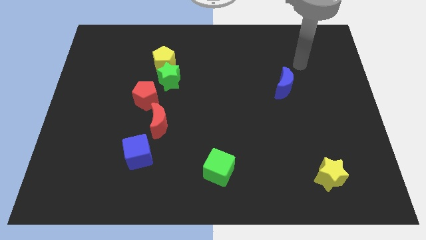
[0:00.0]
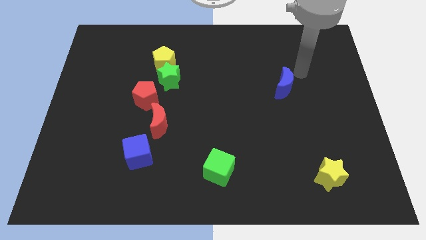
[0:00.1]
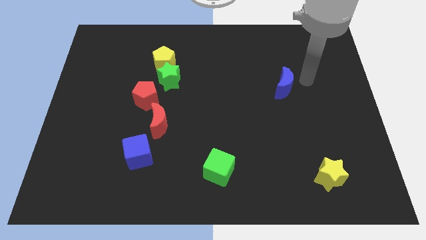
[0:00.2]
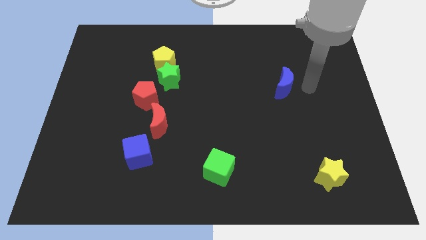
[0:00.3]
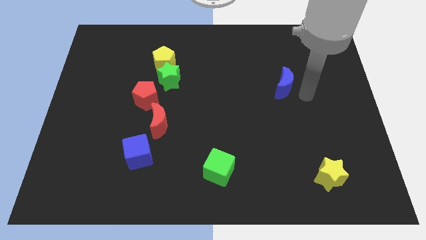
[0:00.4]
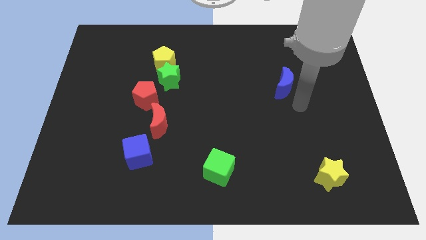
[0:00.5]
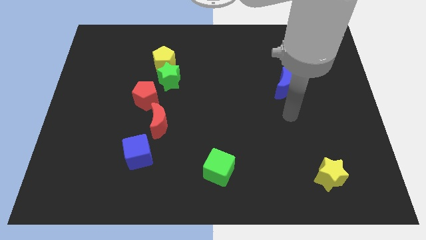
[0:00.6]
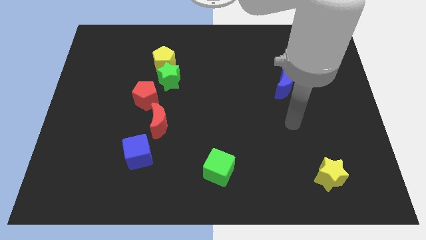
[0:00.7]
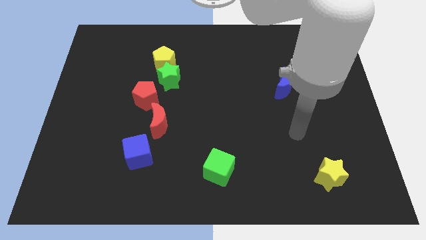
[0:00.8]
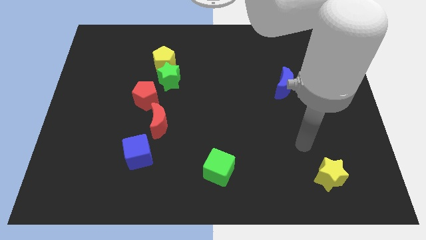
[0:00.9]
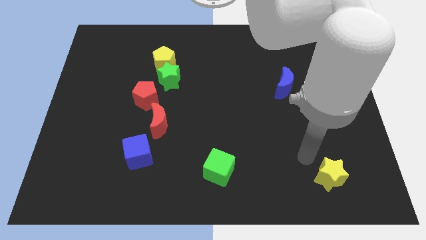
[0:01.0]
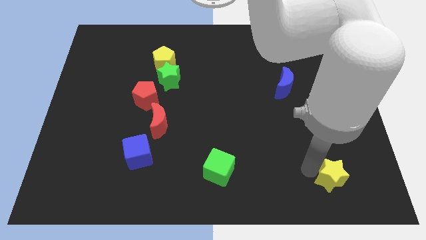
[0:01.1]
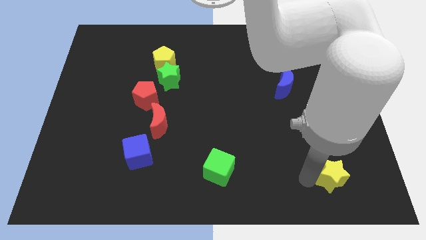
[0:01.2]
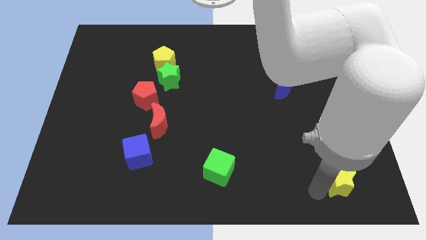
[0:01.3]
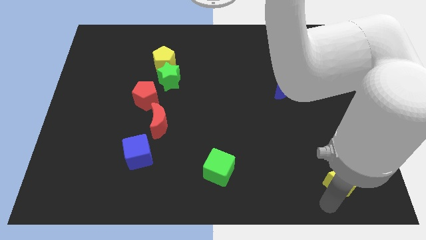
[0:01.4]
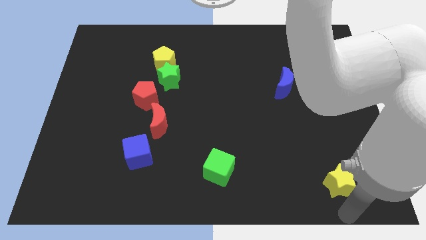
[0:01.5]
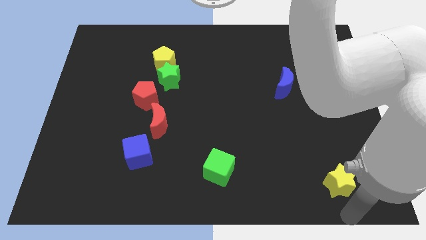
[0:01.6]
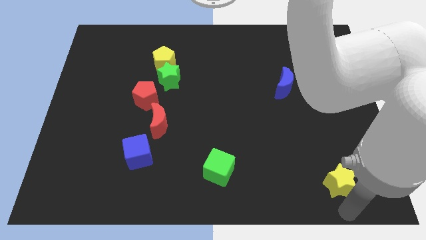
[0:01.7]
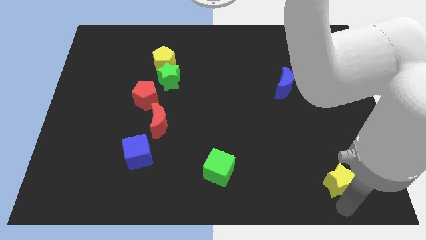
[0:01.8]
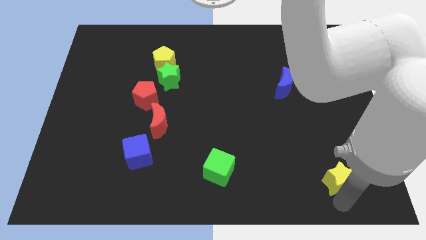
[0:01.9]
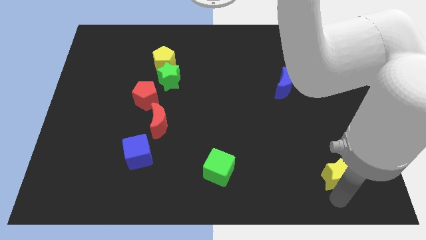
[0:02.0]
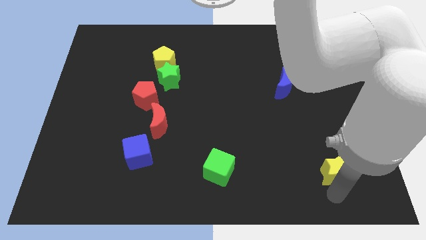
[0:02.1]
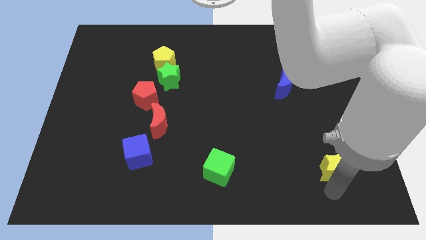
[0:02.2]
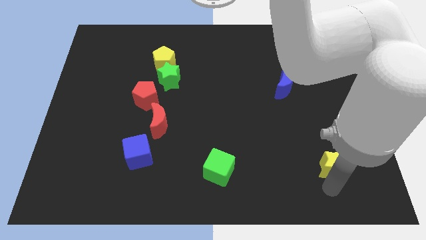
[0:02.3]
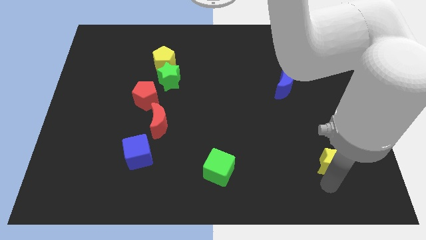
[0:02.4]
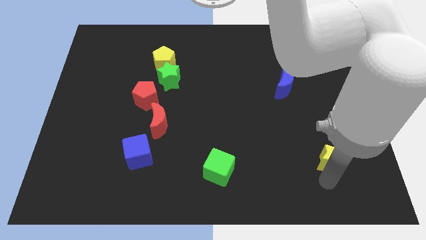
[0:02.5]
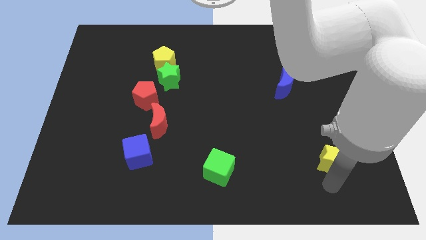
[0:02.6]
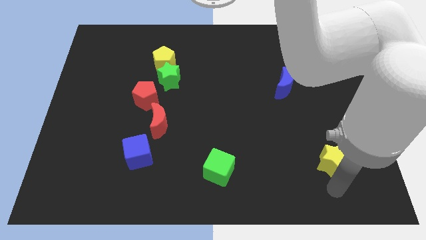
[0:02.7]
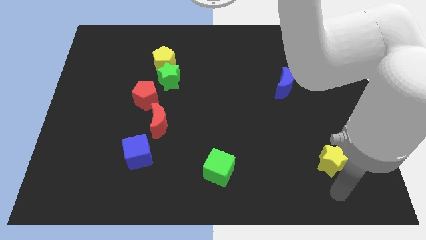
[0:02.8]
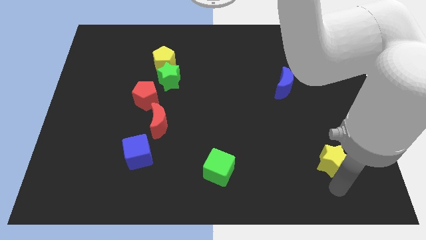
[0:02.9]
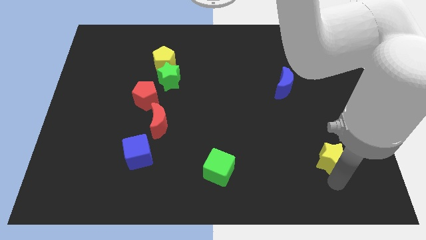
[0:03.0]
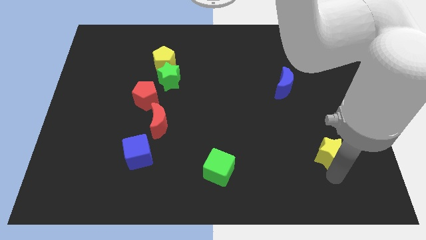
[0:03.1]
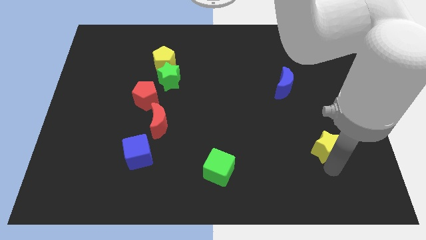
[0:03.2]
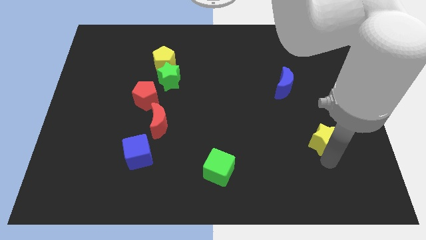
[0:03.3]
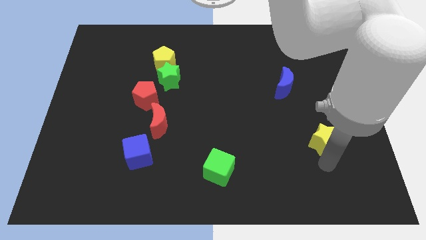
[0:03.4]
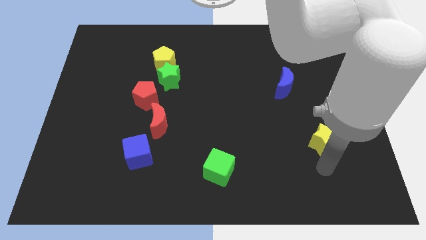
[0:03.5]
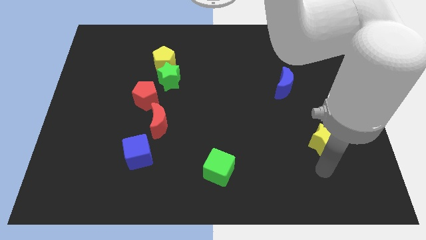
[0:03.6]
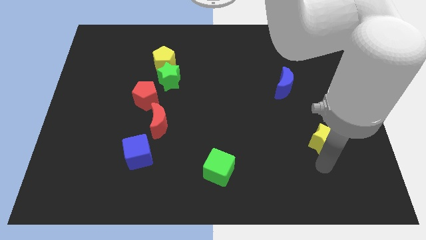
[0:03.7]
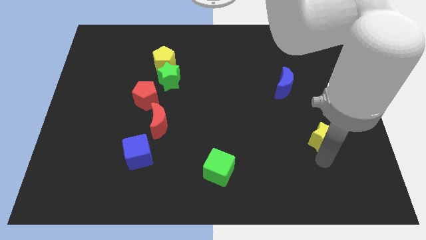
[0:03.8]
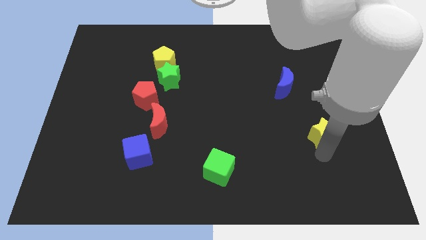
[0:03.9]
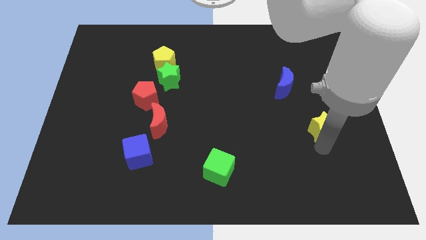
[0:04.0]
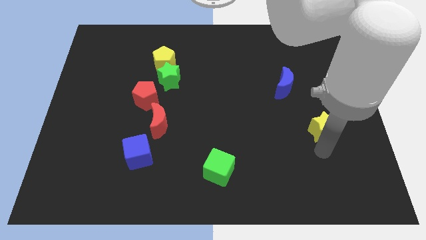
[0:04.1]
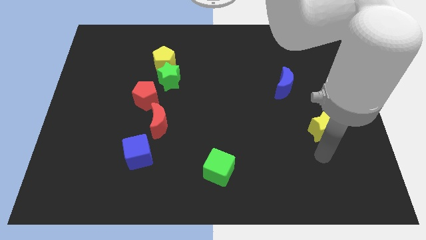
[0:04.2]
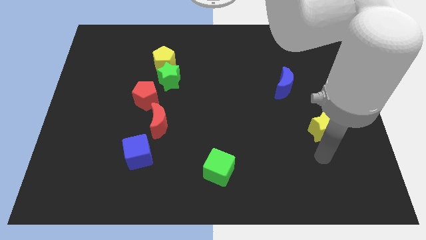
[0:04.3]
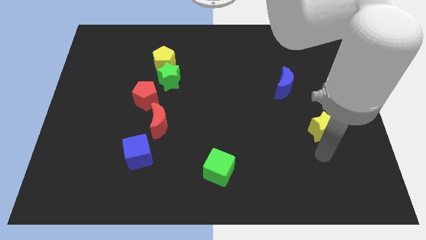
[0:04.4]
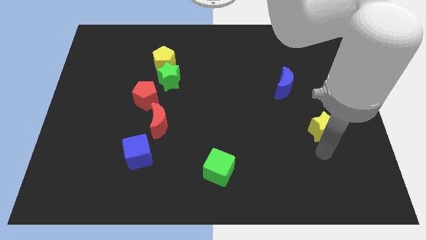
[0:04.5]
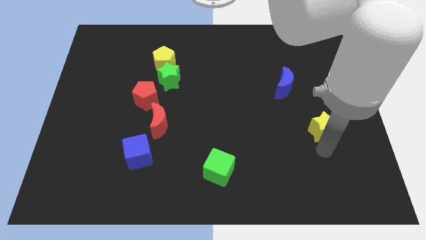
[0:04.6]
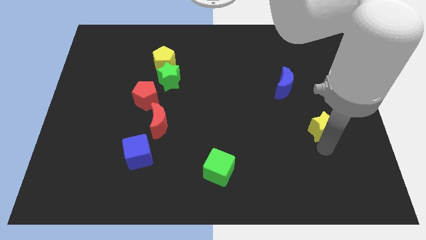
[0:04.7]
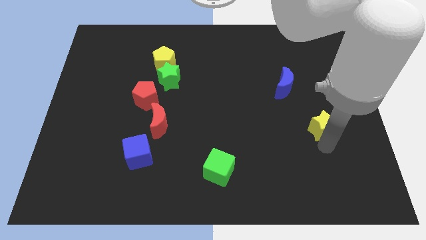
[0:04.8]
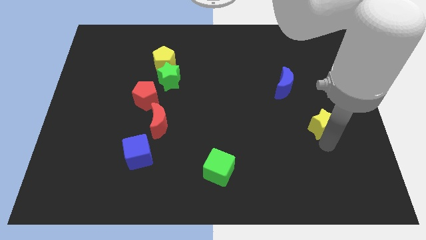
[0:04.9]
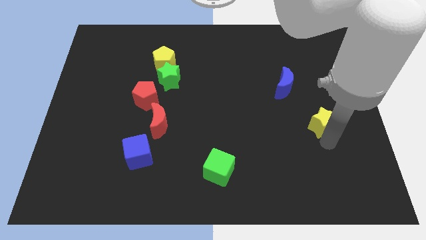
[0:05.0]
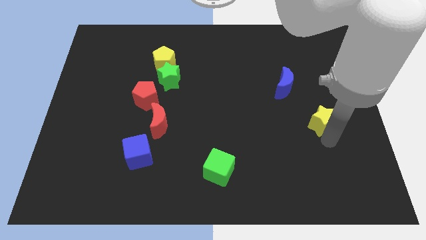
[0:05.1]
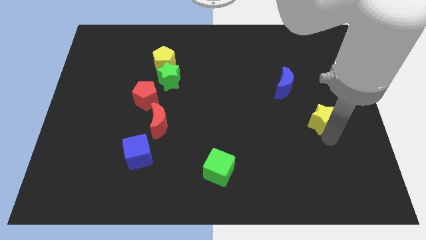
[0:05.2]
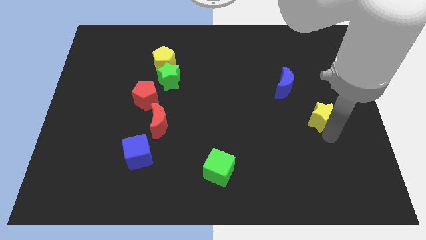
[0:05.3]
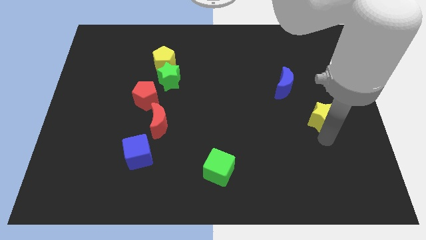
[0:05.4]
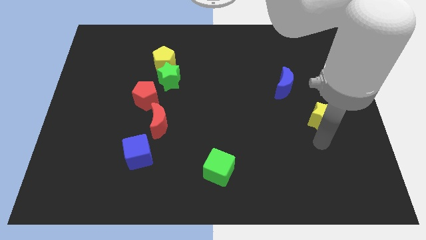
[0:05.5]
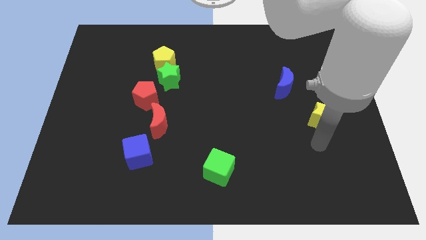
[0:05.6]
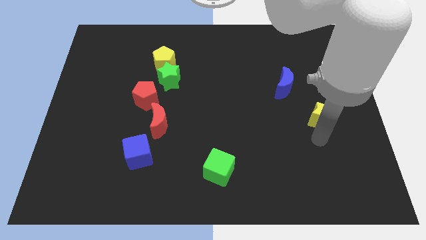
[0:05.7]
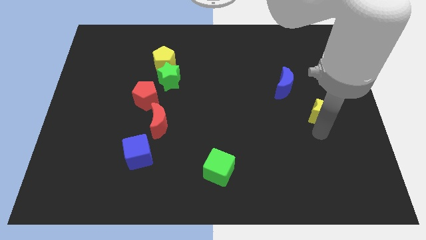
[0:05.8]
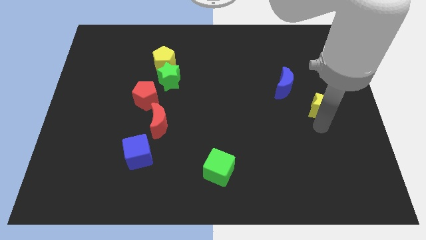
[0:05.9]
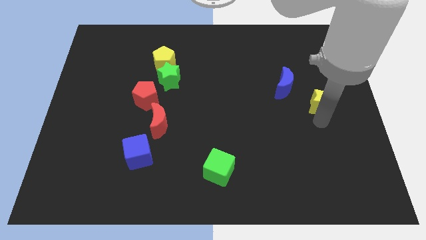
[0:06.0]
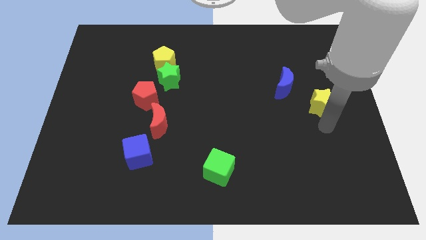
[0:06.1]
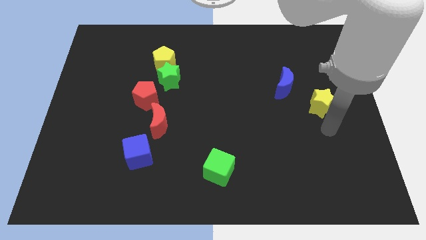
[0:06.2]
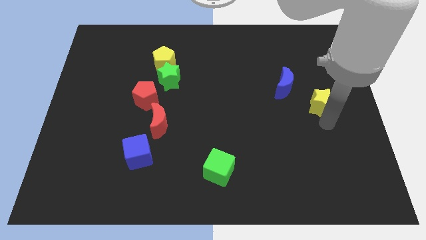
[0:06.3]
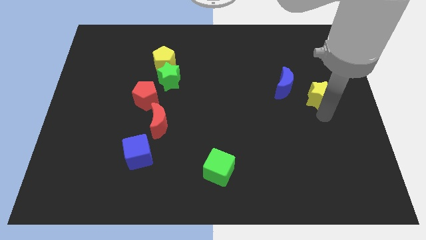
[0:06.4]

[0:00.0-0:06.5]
move the yellow star upwards

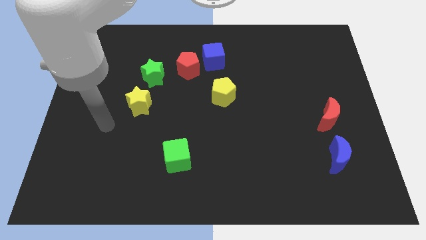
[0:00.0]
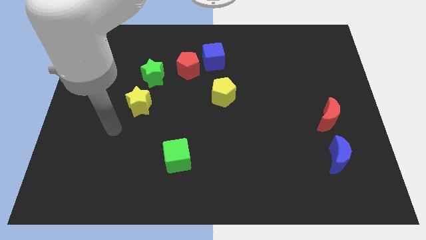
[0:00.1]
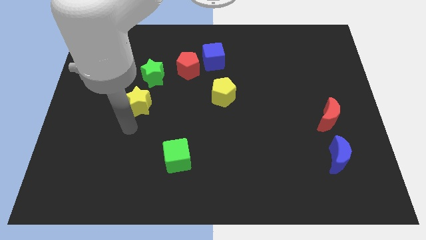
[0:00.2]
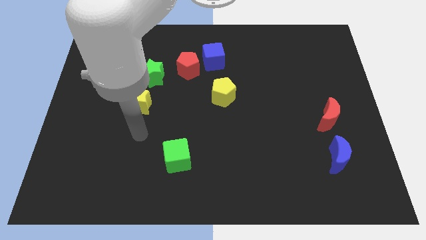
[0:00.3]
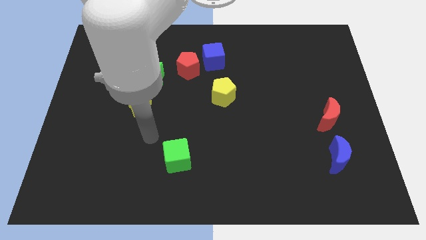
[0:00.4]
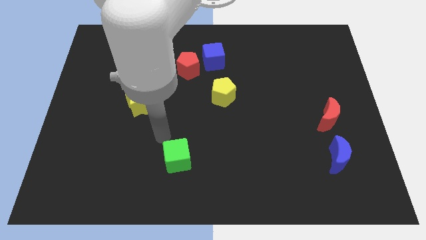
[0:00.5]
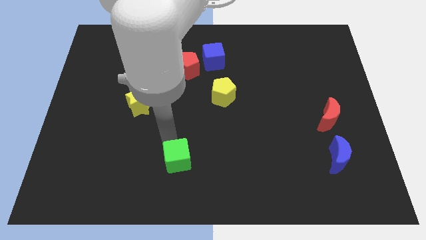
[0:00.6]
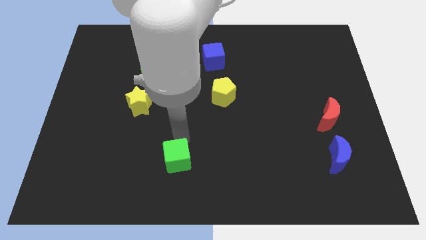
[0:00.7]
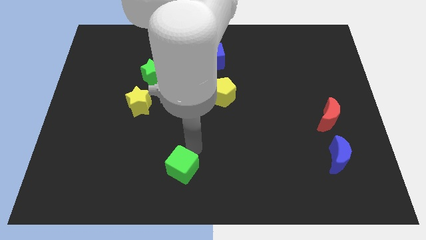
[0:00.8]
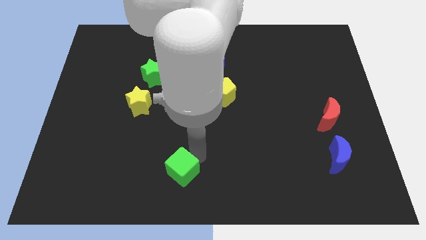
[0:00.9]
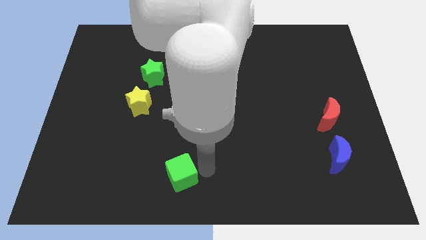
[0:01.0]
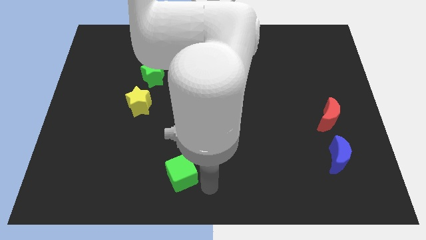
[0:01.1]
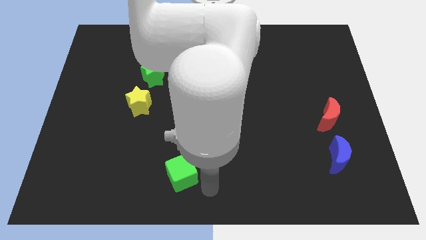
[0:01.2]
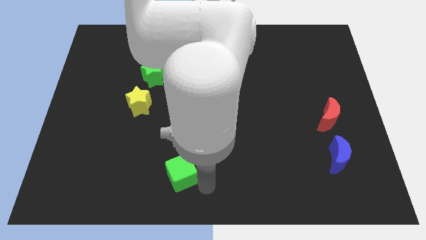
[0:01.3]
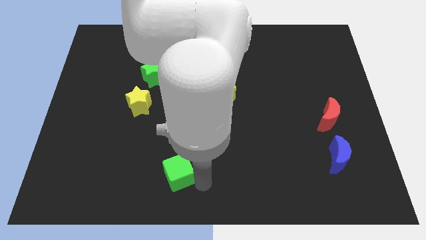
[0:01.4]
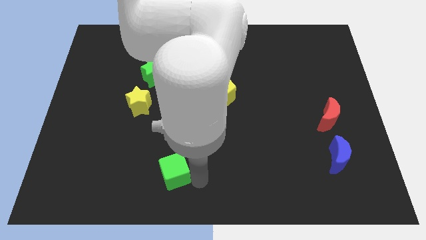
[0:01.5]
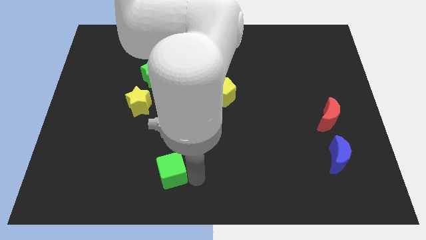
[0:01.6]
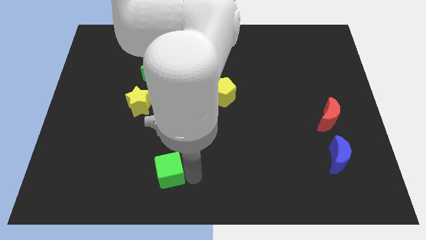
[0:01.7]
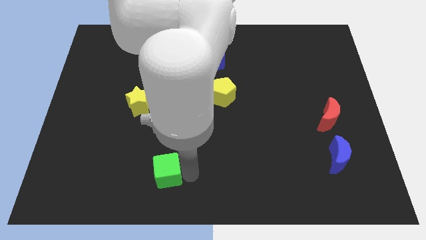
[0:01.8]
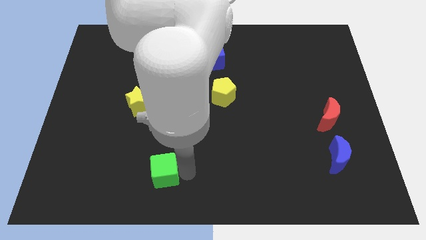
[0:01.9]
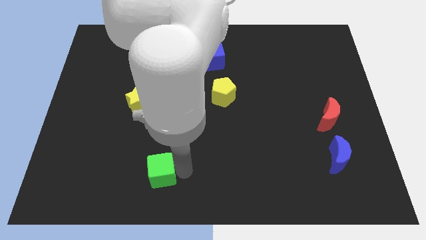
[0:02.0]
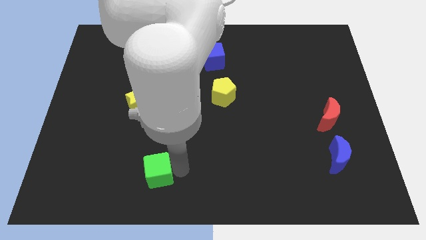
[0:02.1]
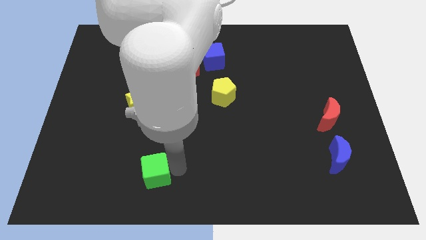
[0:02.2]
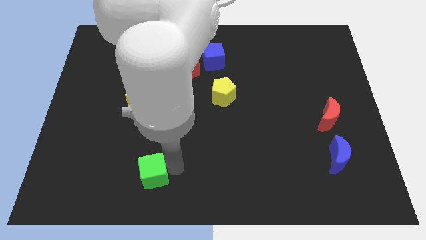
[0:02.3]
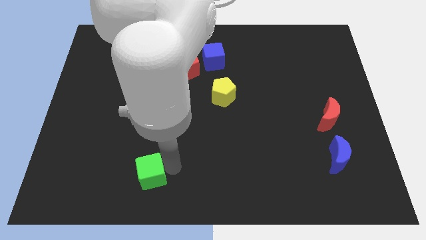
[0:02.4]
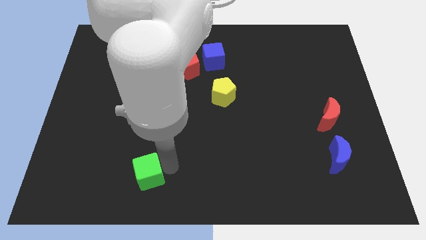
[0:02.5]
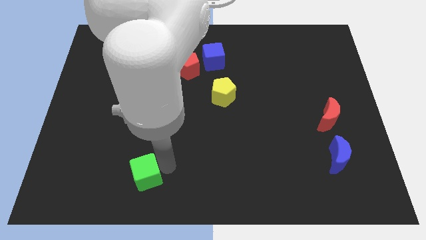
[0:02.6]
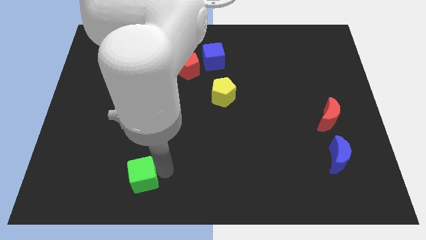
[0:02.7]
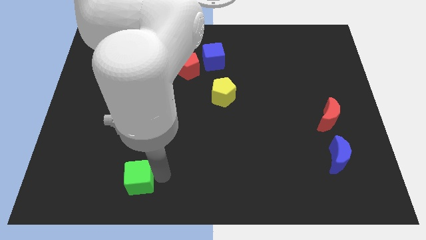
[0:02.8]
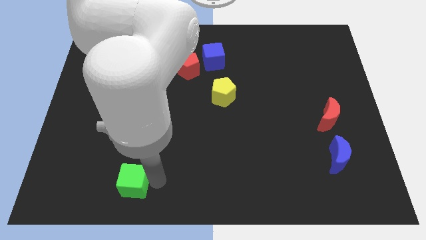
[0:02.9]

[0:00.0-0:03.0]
slightly push the green cube to the left
